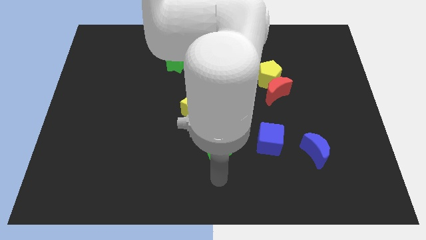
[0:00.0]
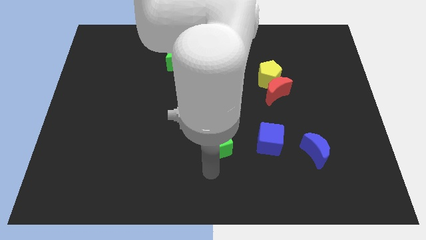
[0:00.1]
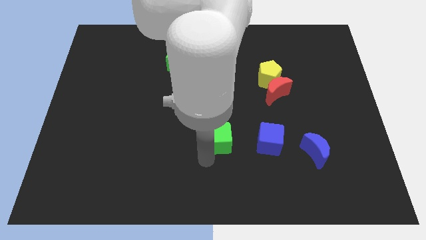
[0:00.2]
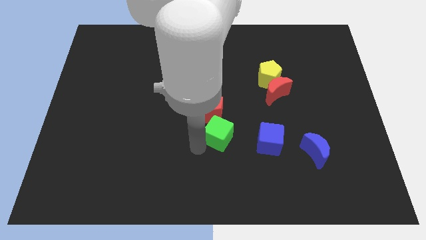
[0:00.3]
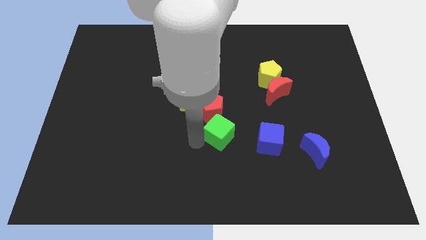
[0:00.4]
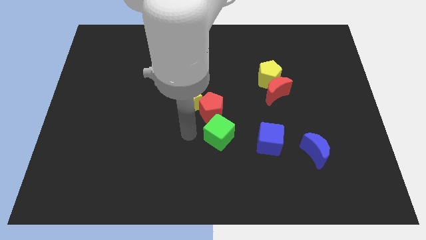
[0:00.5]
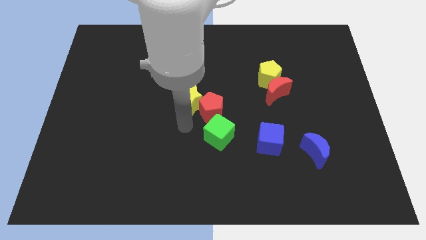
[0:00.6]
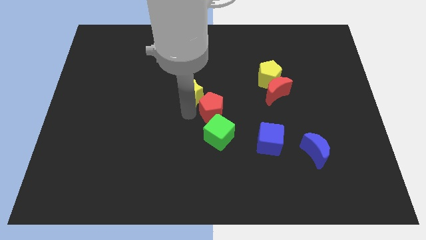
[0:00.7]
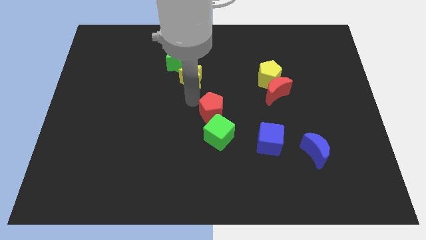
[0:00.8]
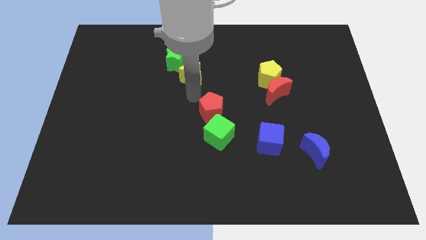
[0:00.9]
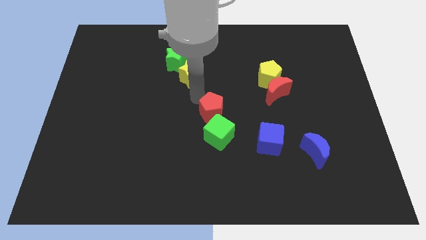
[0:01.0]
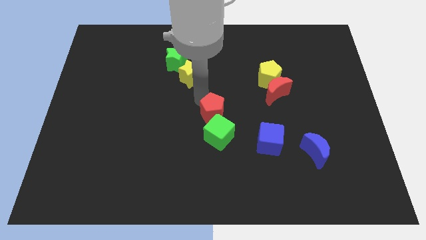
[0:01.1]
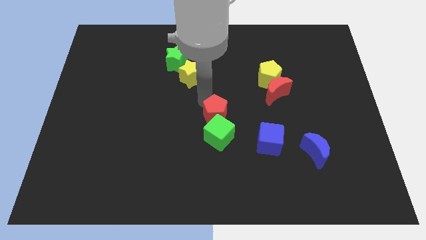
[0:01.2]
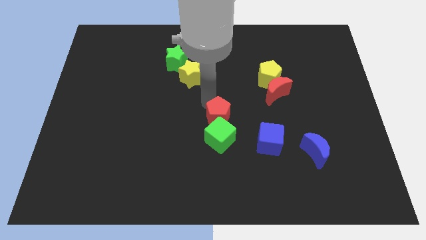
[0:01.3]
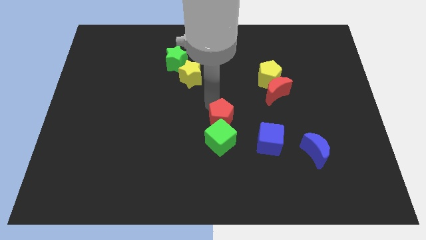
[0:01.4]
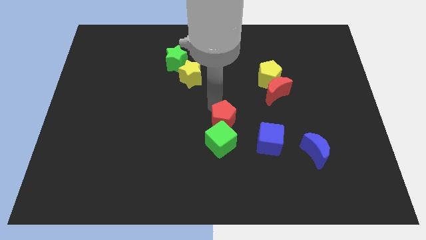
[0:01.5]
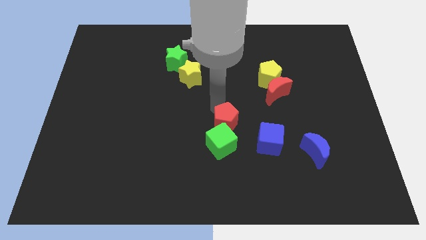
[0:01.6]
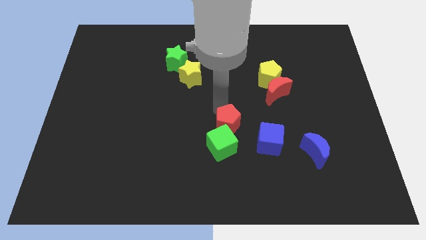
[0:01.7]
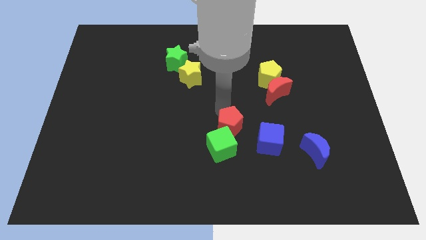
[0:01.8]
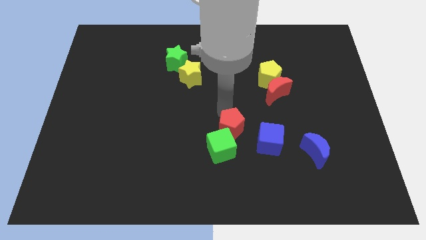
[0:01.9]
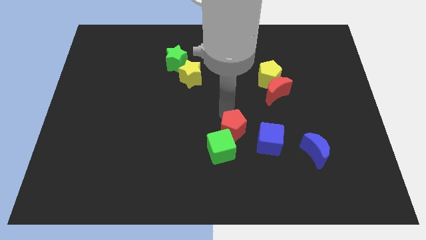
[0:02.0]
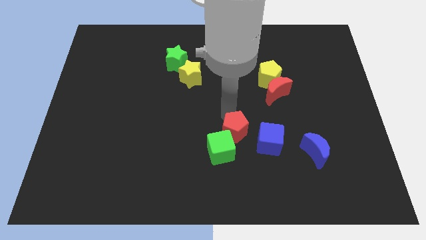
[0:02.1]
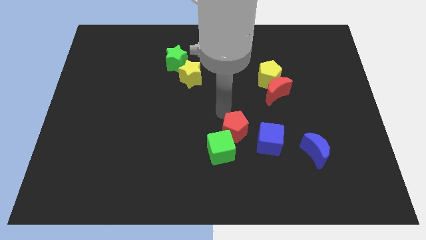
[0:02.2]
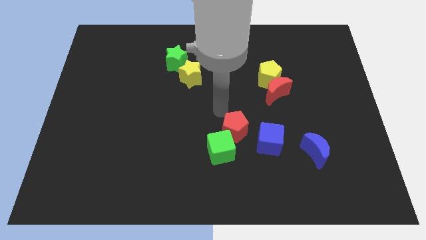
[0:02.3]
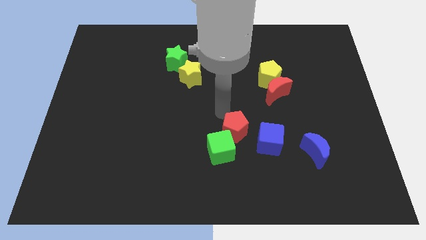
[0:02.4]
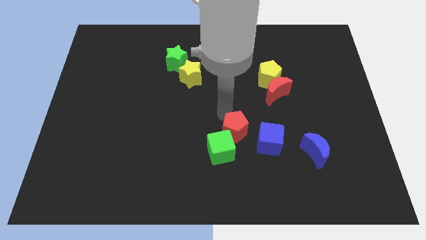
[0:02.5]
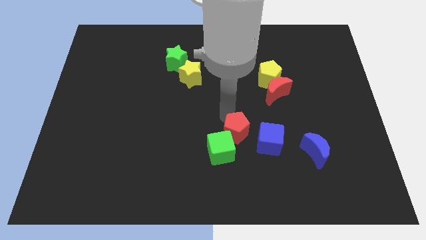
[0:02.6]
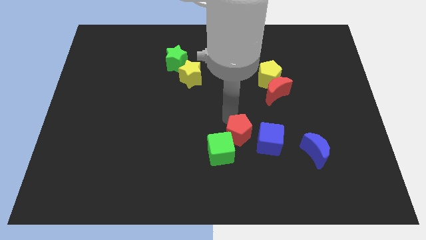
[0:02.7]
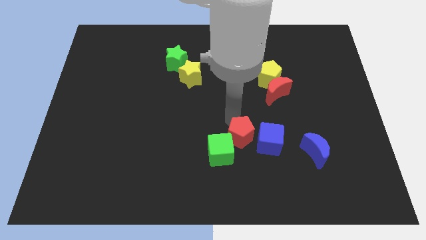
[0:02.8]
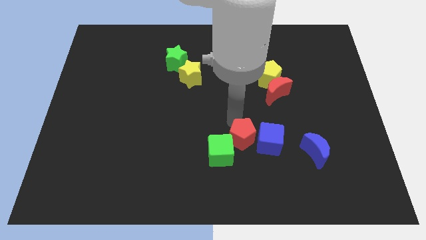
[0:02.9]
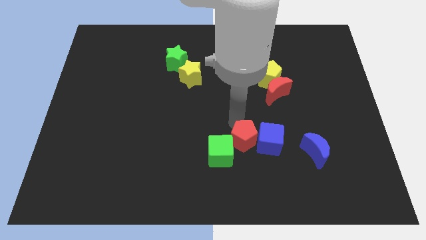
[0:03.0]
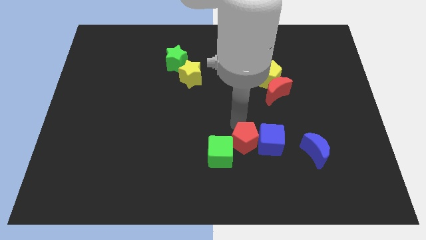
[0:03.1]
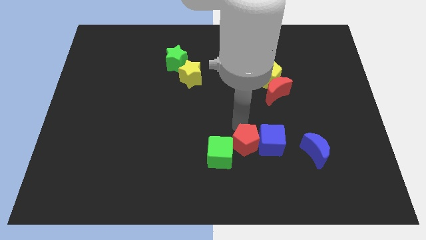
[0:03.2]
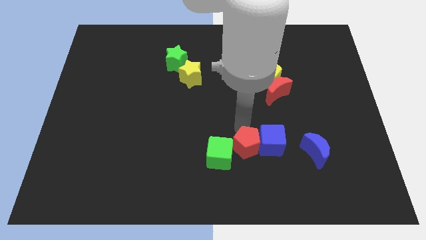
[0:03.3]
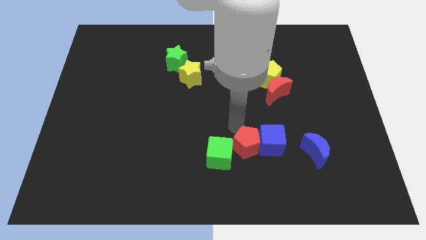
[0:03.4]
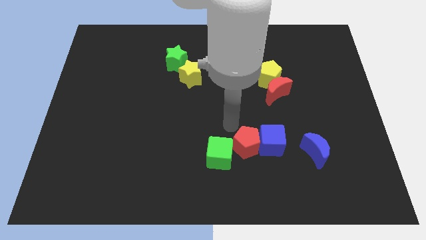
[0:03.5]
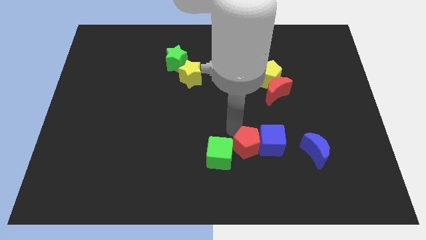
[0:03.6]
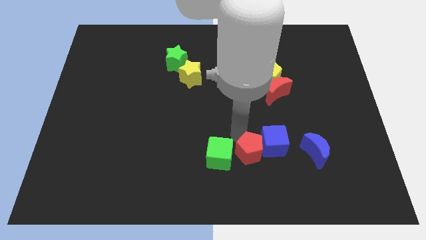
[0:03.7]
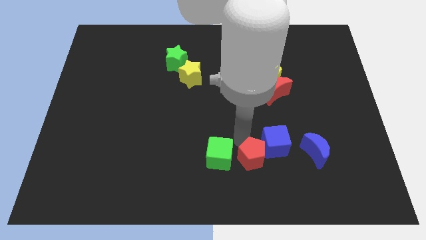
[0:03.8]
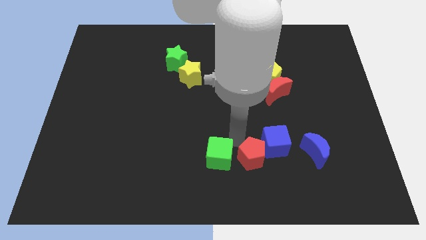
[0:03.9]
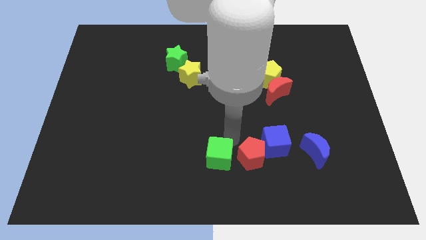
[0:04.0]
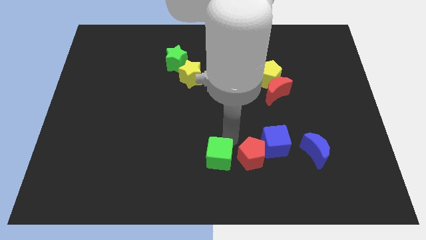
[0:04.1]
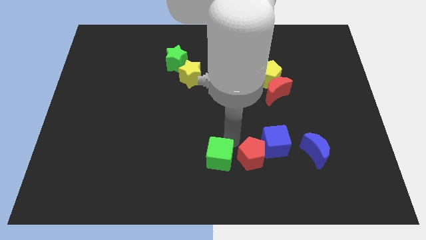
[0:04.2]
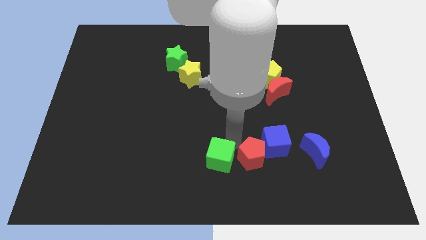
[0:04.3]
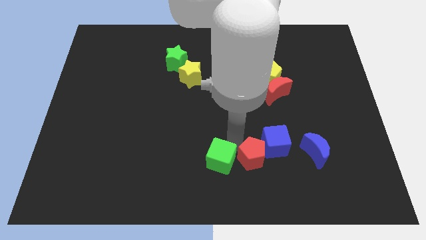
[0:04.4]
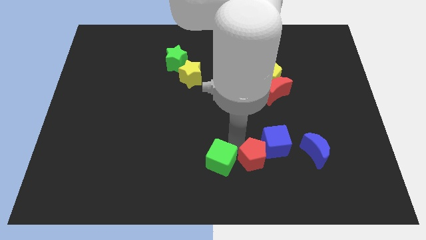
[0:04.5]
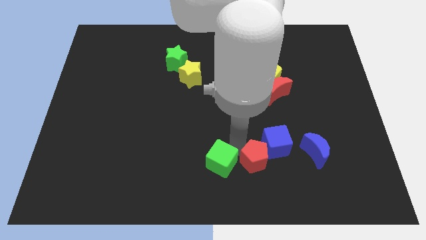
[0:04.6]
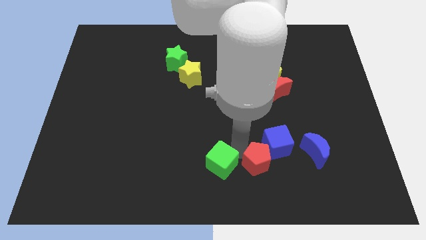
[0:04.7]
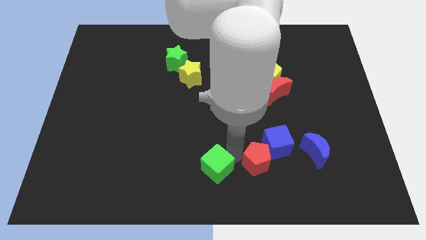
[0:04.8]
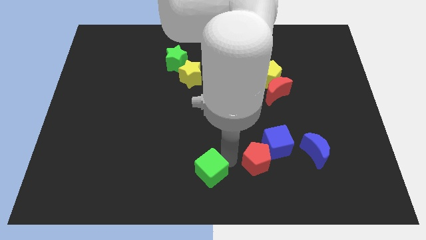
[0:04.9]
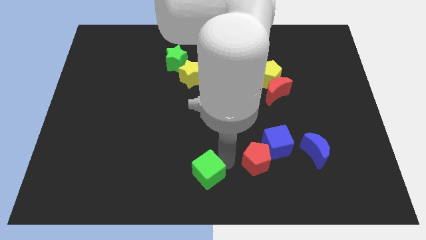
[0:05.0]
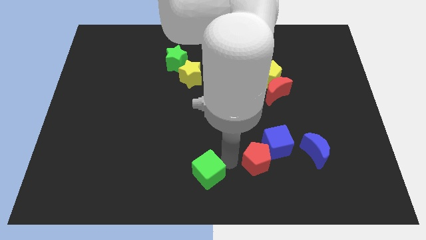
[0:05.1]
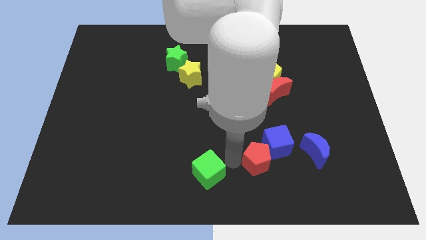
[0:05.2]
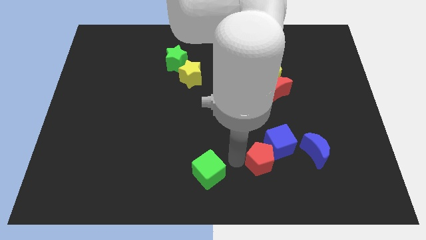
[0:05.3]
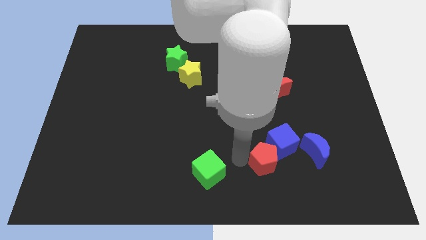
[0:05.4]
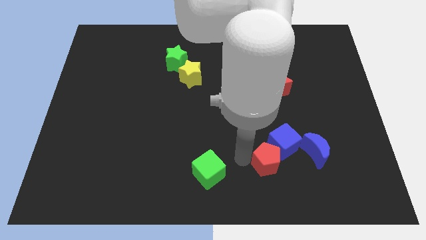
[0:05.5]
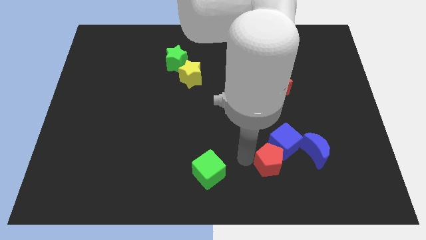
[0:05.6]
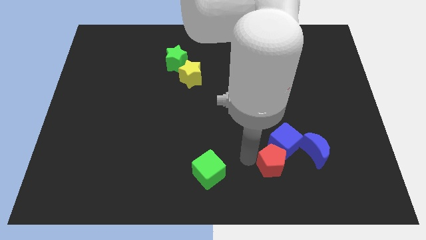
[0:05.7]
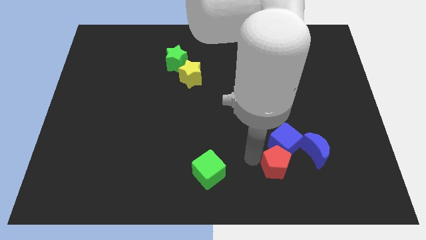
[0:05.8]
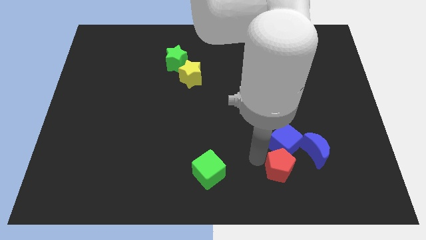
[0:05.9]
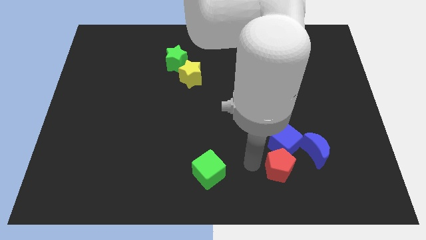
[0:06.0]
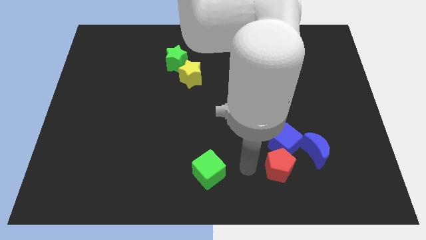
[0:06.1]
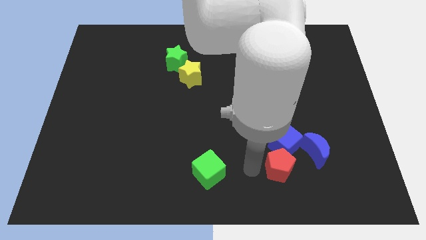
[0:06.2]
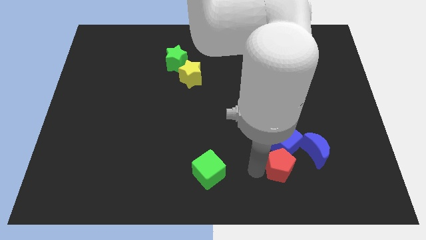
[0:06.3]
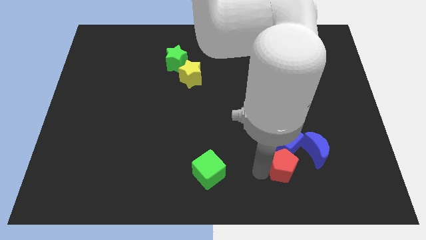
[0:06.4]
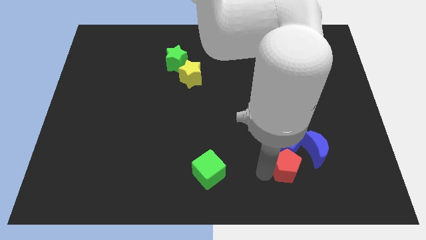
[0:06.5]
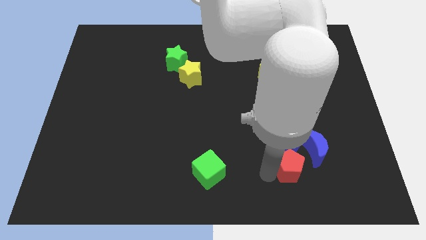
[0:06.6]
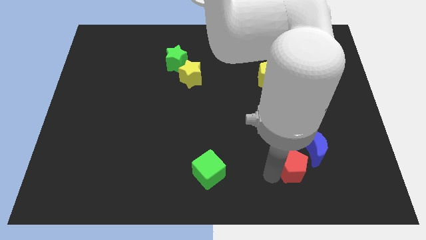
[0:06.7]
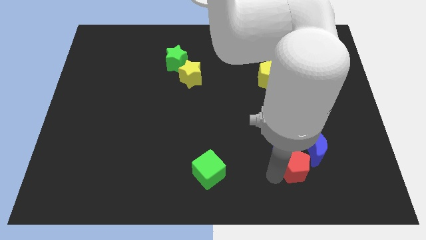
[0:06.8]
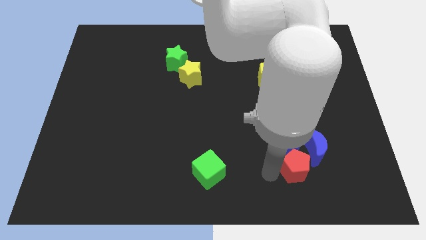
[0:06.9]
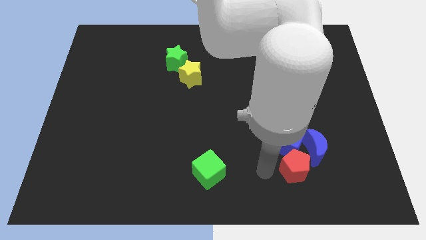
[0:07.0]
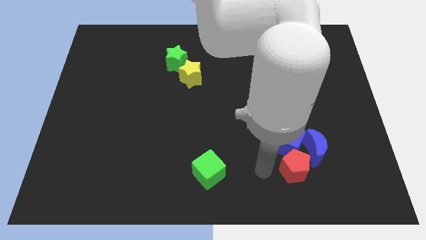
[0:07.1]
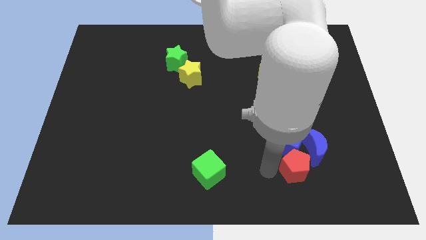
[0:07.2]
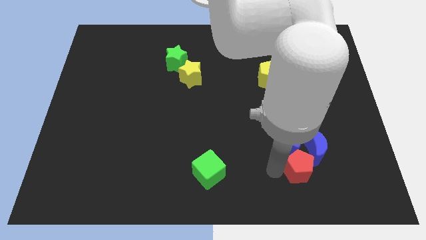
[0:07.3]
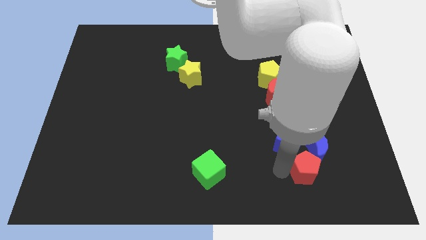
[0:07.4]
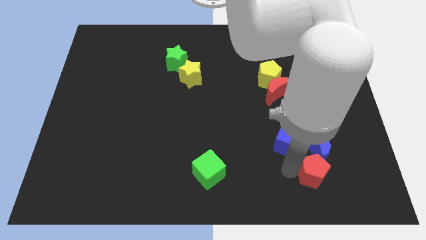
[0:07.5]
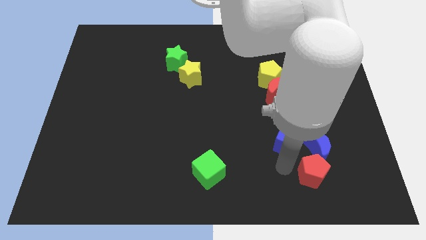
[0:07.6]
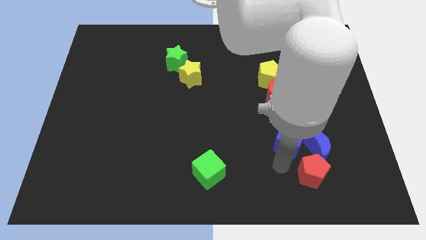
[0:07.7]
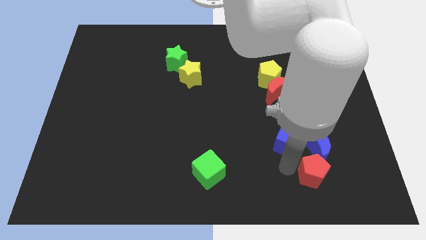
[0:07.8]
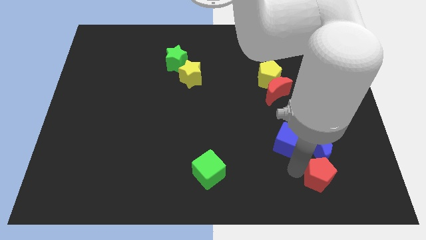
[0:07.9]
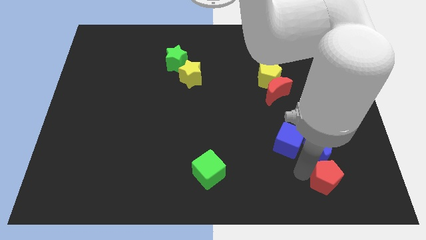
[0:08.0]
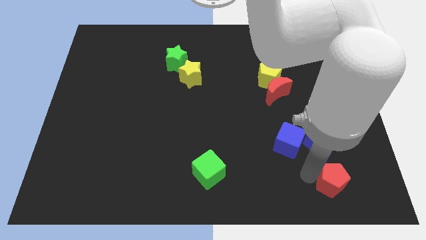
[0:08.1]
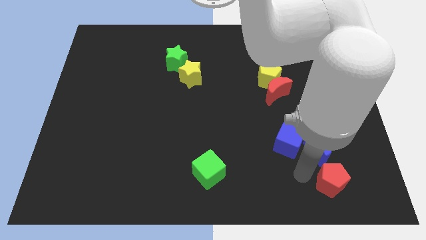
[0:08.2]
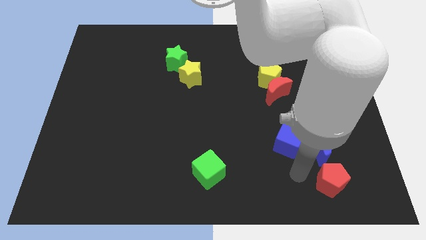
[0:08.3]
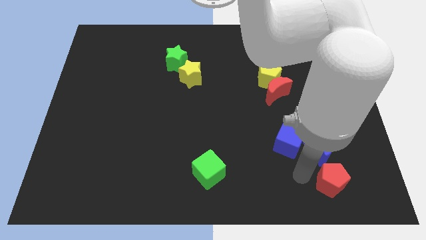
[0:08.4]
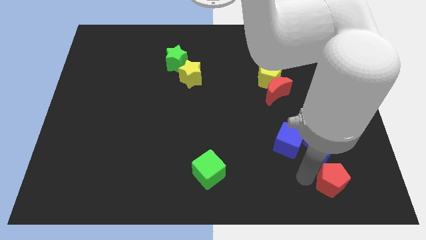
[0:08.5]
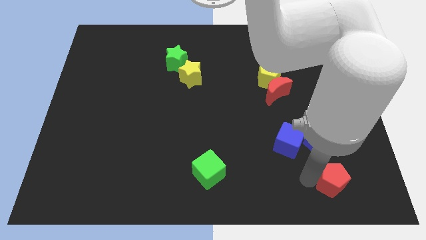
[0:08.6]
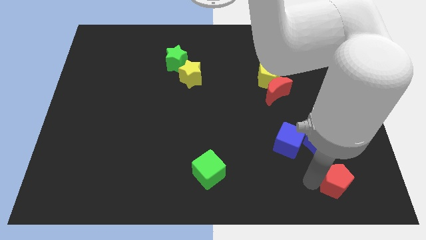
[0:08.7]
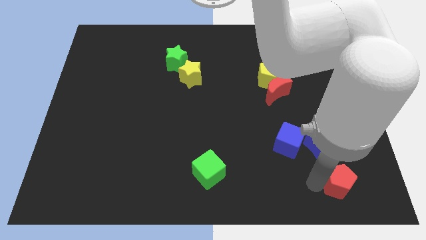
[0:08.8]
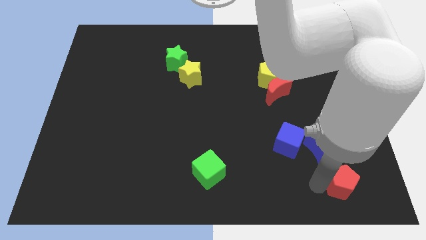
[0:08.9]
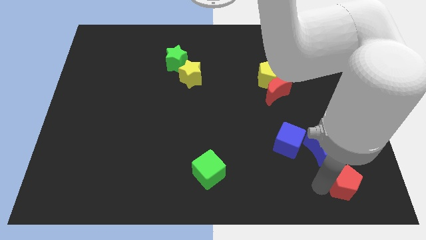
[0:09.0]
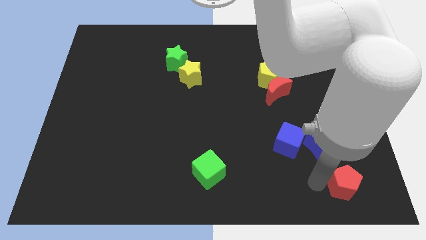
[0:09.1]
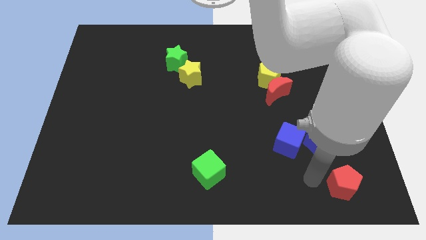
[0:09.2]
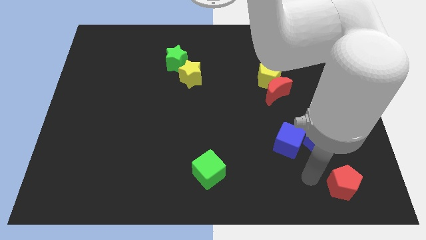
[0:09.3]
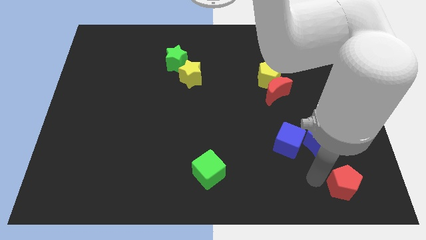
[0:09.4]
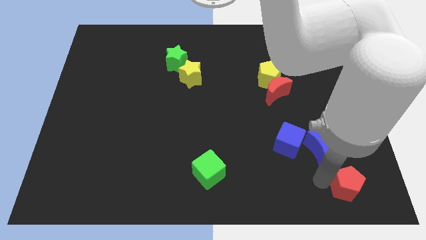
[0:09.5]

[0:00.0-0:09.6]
slide the red pentagon to the bottom right corner
